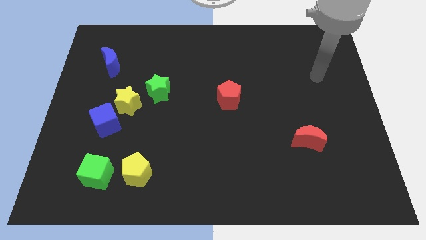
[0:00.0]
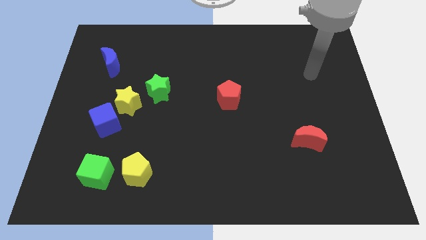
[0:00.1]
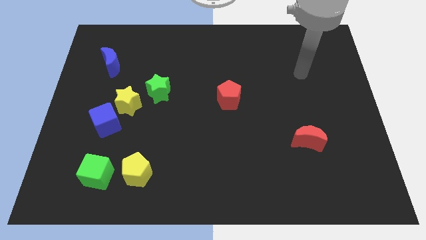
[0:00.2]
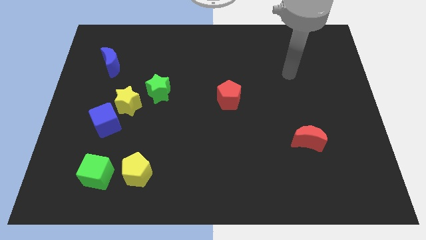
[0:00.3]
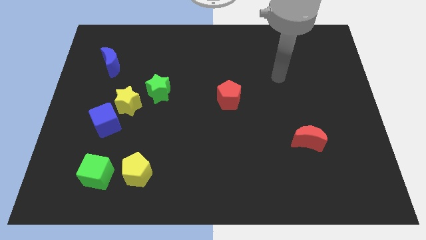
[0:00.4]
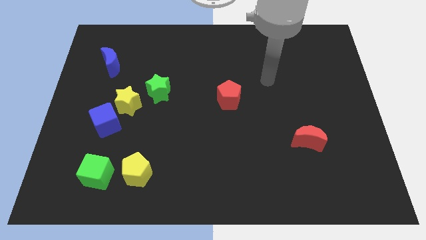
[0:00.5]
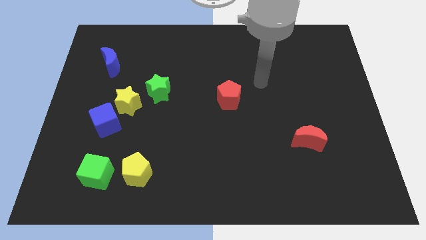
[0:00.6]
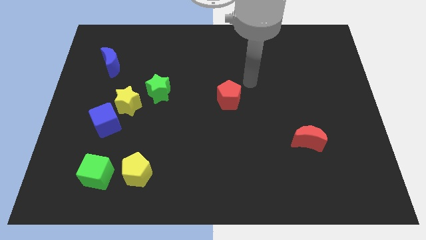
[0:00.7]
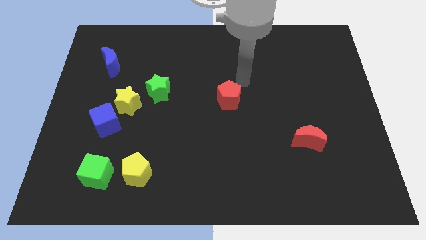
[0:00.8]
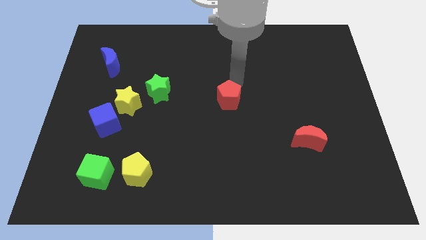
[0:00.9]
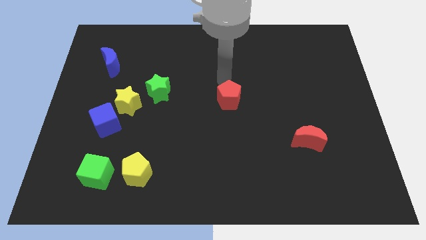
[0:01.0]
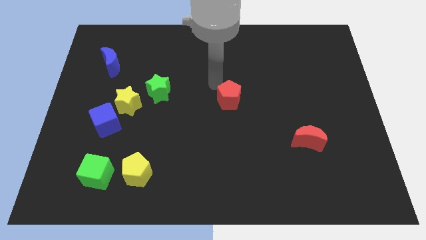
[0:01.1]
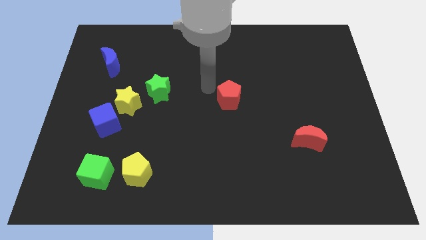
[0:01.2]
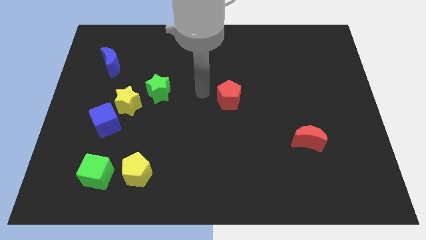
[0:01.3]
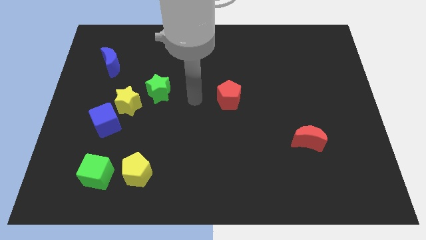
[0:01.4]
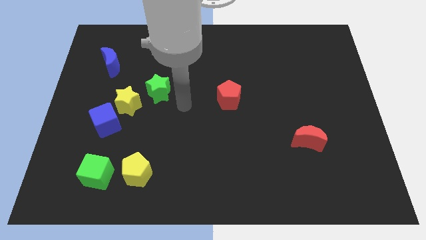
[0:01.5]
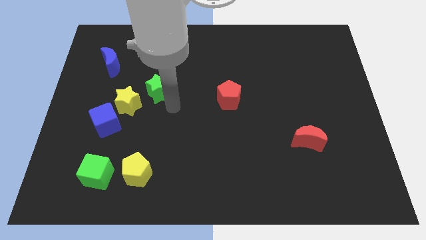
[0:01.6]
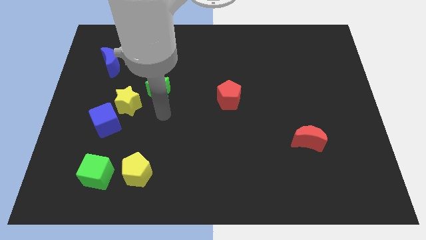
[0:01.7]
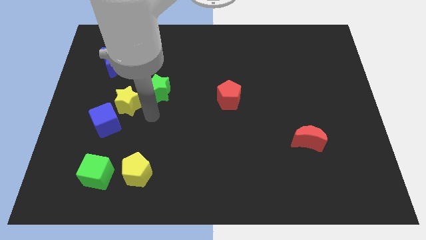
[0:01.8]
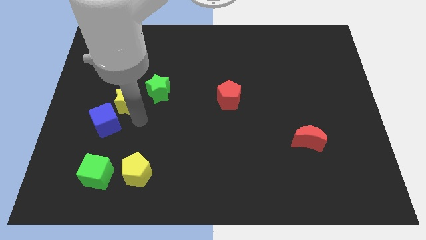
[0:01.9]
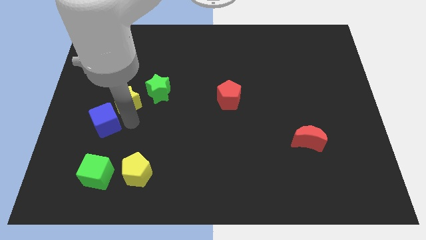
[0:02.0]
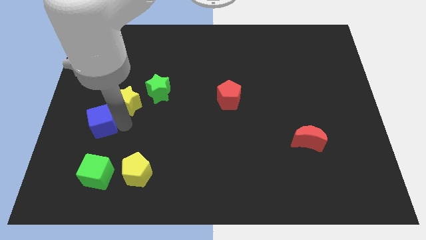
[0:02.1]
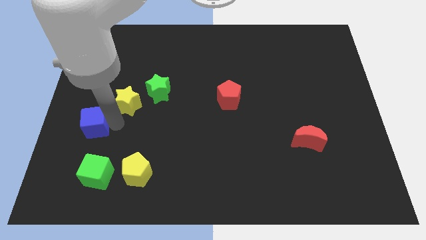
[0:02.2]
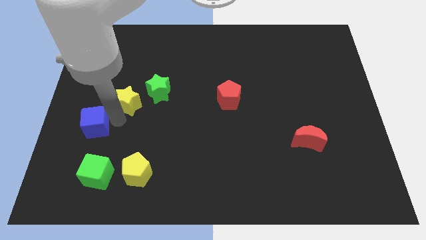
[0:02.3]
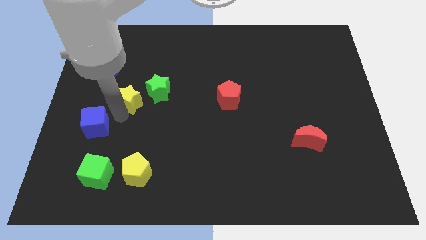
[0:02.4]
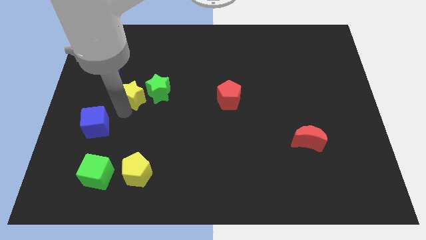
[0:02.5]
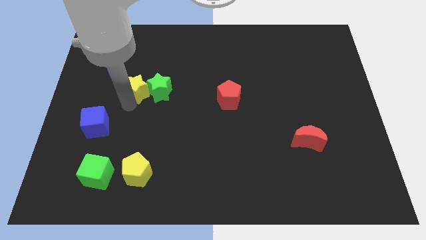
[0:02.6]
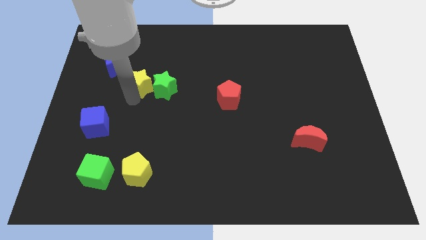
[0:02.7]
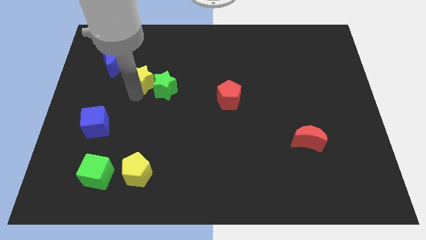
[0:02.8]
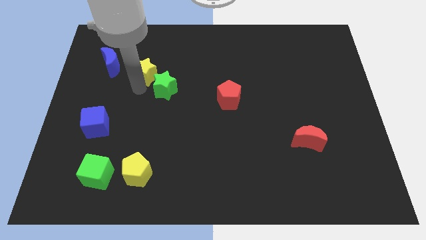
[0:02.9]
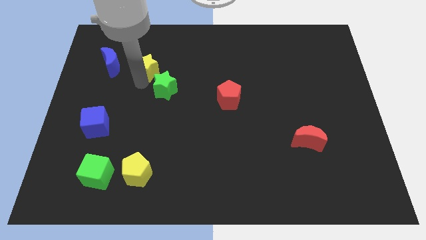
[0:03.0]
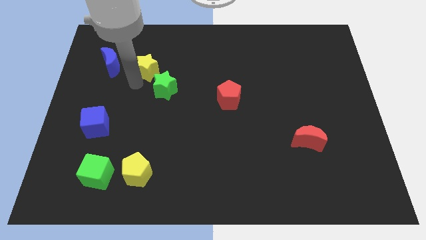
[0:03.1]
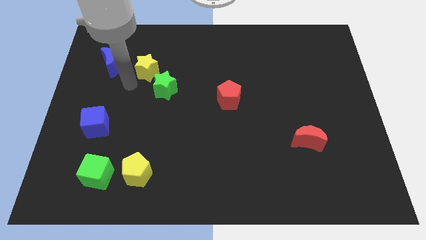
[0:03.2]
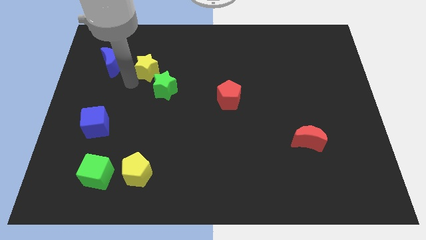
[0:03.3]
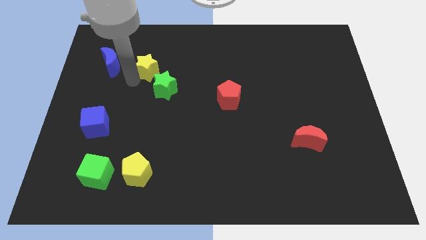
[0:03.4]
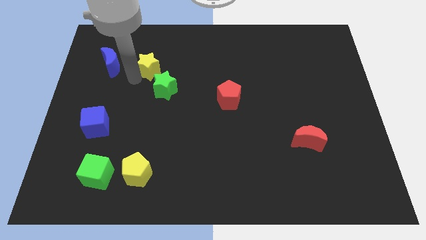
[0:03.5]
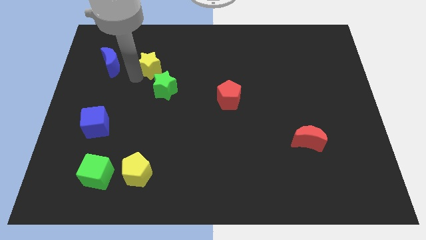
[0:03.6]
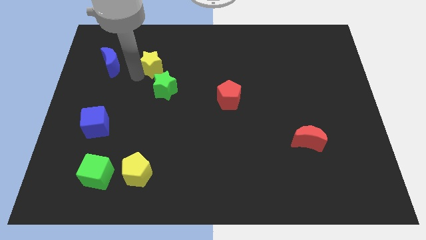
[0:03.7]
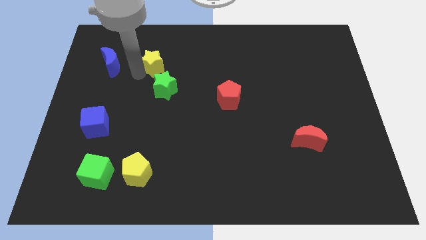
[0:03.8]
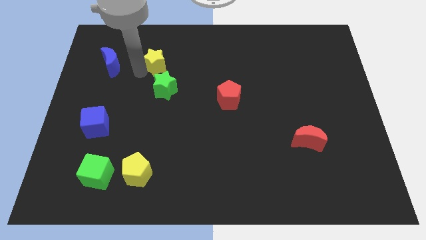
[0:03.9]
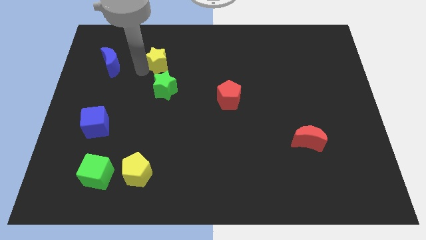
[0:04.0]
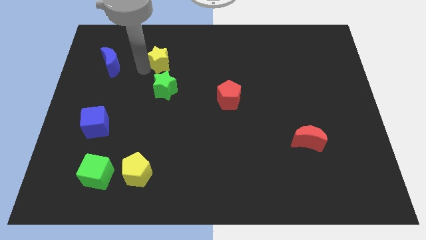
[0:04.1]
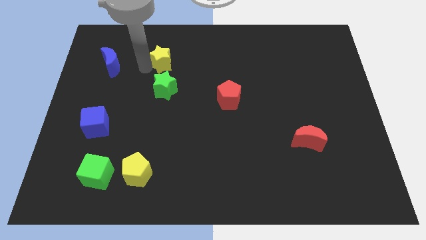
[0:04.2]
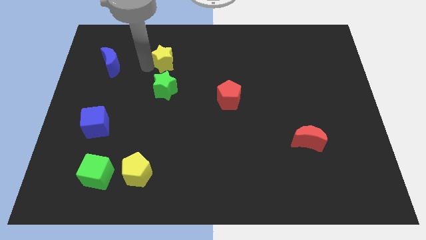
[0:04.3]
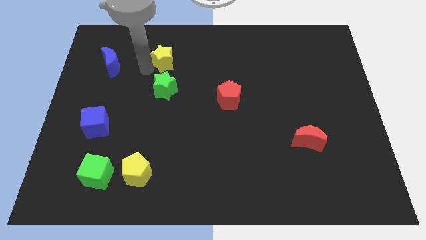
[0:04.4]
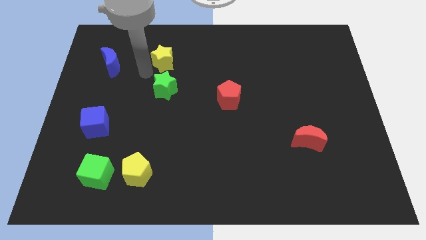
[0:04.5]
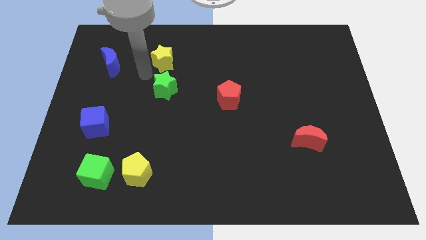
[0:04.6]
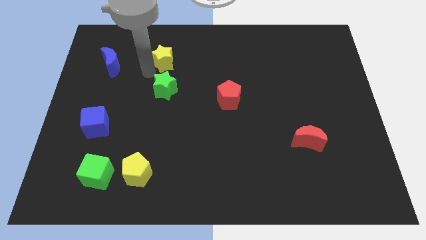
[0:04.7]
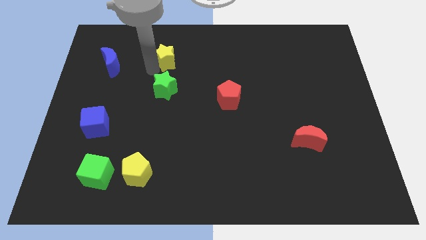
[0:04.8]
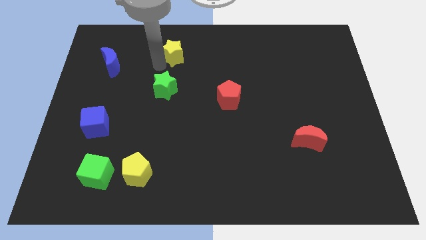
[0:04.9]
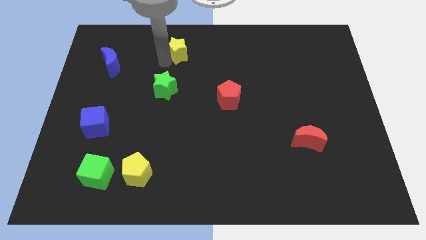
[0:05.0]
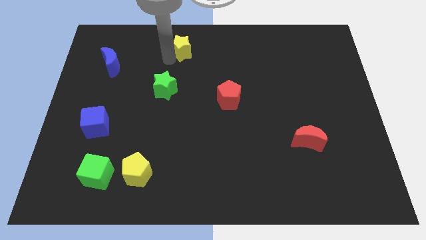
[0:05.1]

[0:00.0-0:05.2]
put the yellow star to the top side

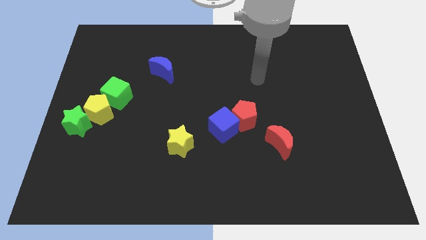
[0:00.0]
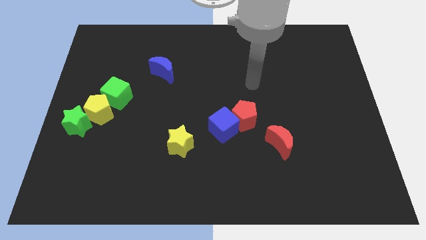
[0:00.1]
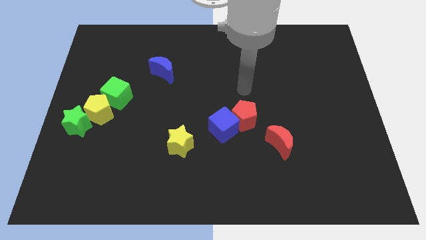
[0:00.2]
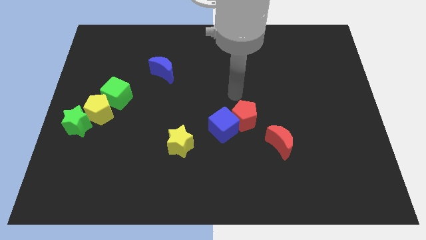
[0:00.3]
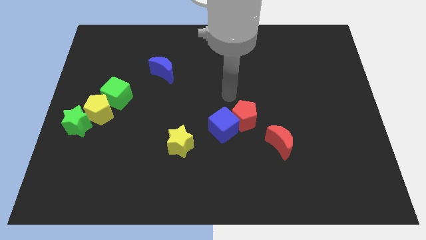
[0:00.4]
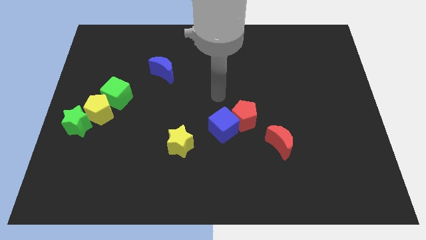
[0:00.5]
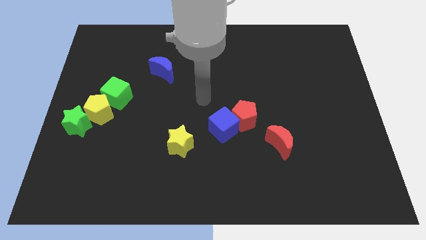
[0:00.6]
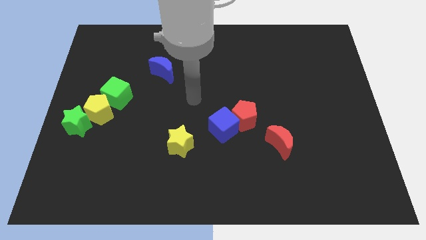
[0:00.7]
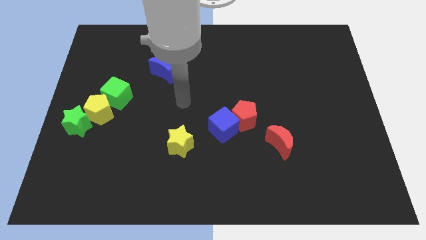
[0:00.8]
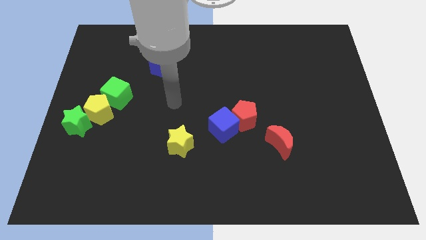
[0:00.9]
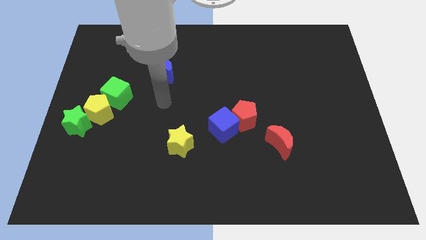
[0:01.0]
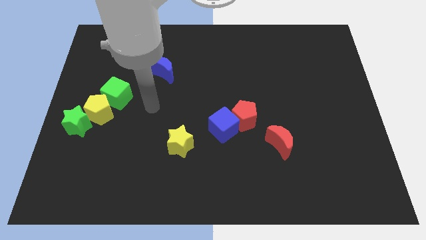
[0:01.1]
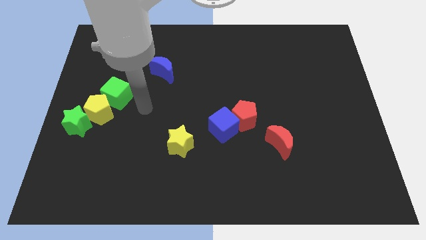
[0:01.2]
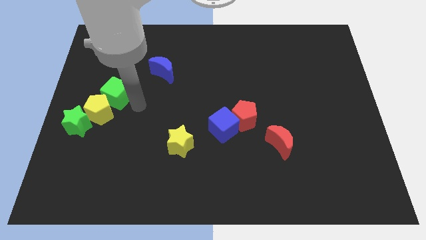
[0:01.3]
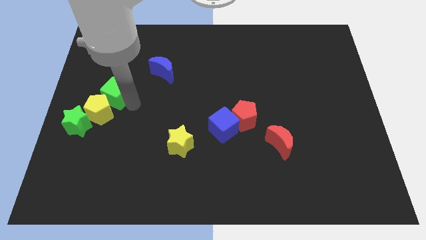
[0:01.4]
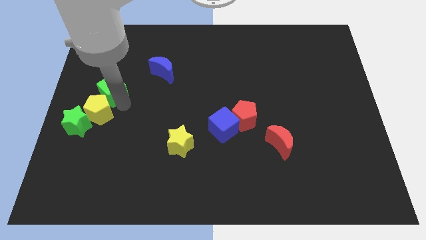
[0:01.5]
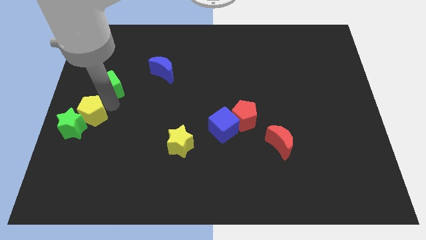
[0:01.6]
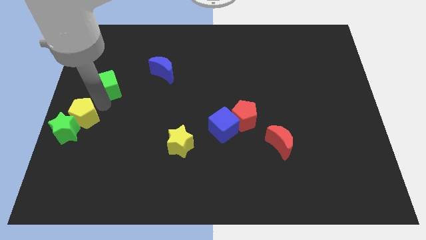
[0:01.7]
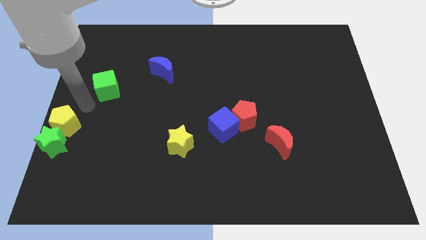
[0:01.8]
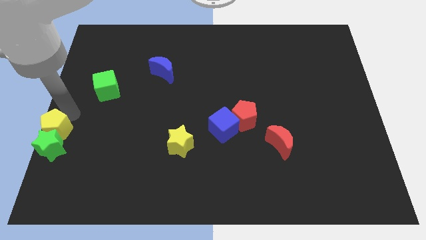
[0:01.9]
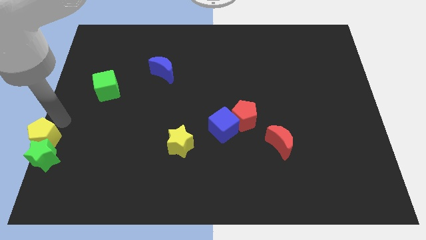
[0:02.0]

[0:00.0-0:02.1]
move the green star to the bottom left of the board
